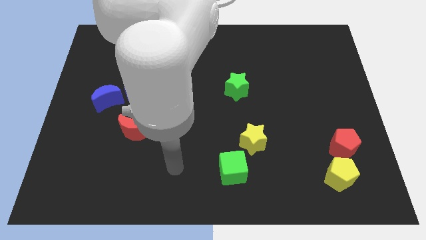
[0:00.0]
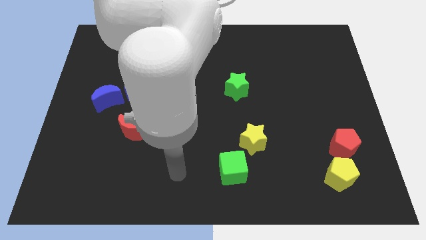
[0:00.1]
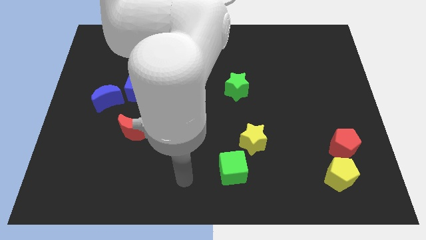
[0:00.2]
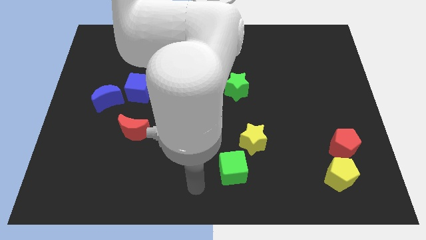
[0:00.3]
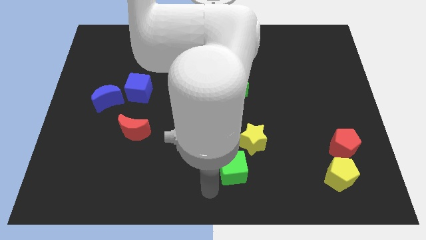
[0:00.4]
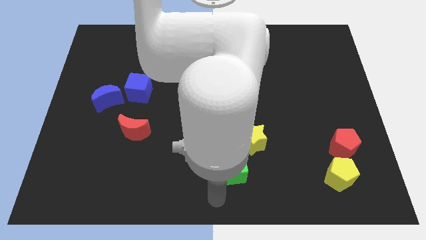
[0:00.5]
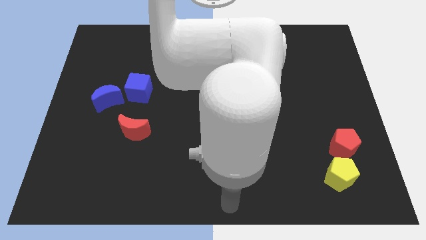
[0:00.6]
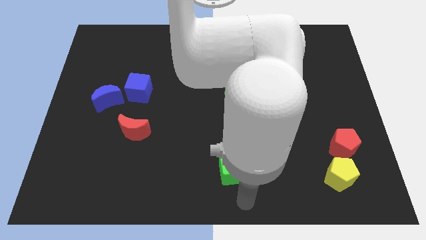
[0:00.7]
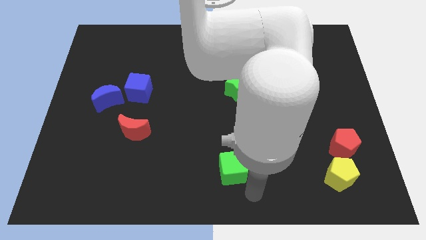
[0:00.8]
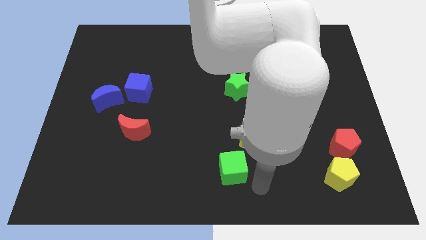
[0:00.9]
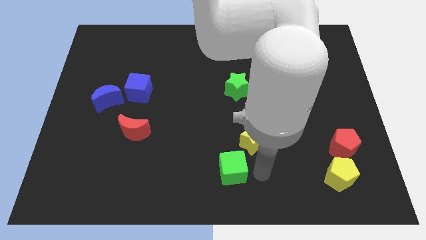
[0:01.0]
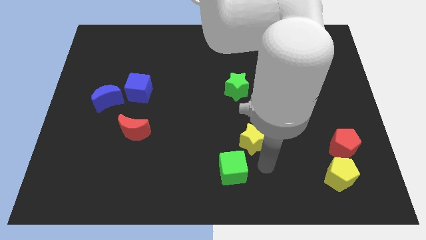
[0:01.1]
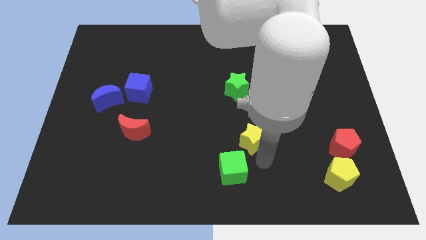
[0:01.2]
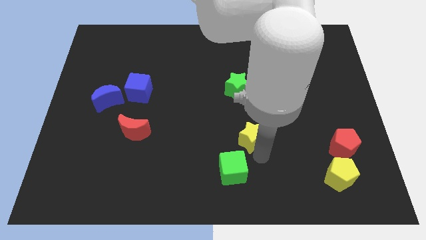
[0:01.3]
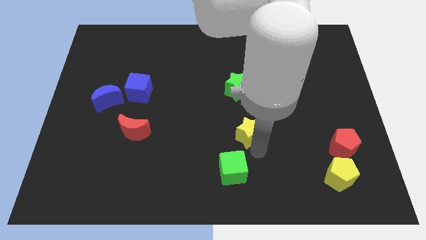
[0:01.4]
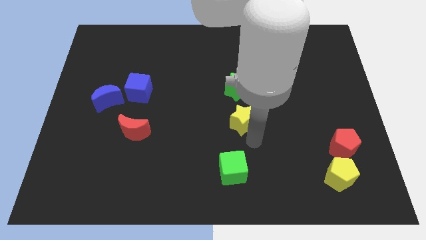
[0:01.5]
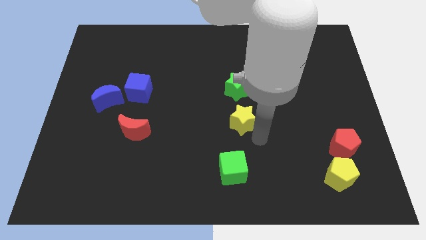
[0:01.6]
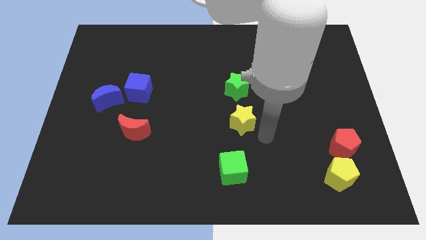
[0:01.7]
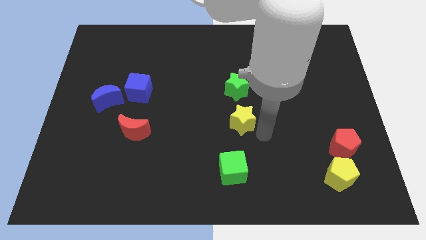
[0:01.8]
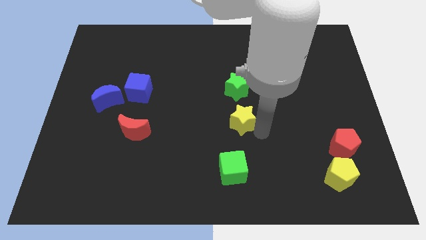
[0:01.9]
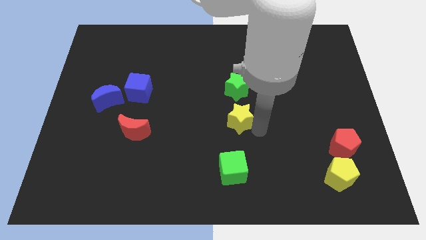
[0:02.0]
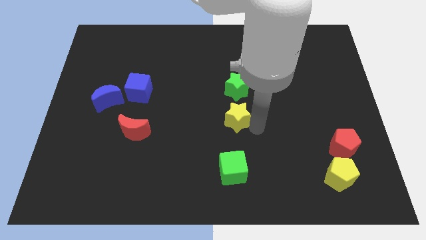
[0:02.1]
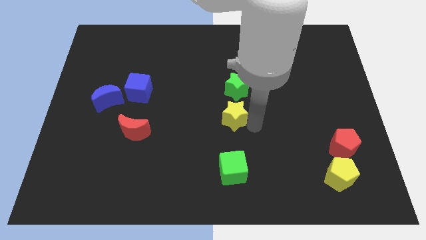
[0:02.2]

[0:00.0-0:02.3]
slide the yellow star upwards and to the left diagonally a bit

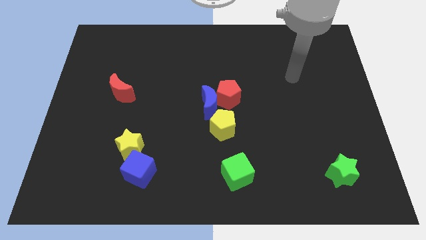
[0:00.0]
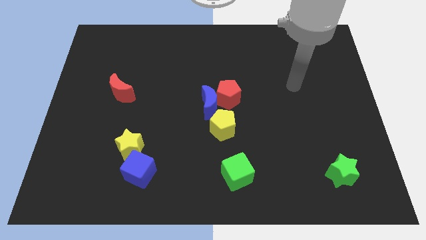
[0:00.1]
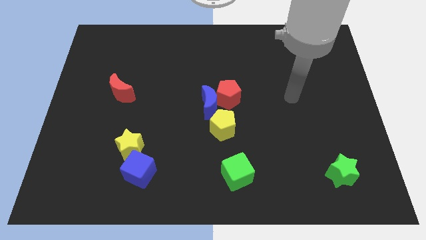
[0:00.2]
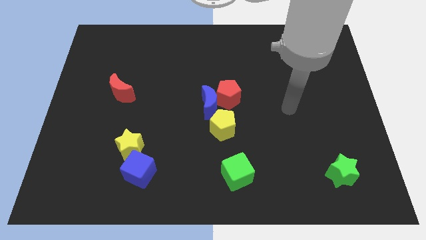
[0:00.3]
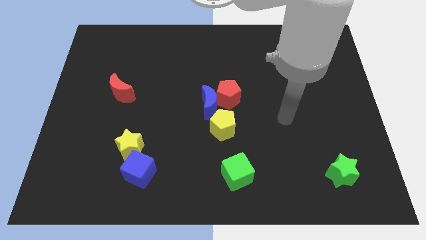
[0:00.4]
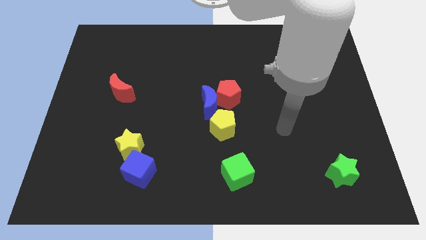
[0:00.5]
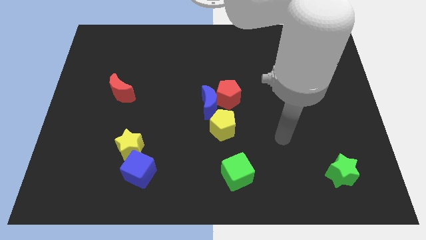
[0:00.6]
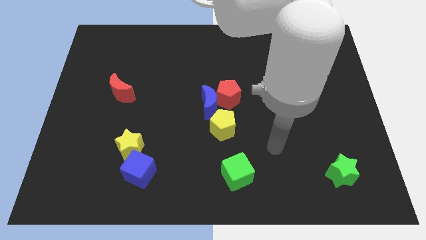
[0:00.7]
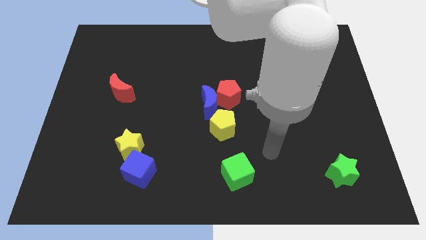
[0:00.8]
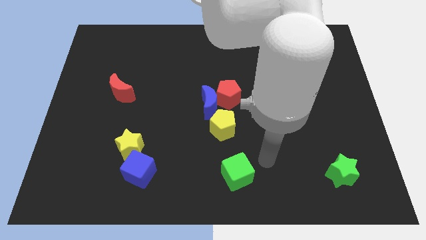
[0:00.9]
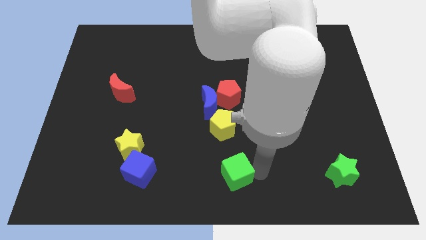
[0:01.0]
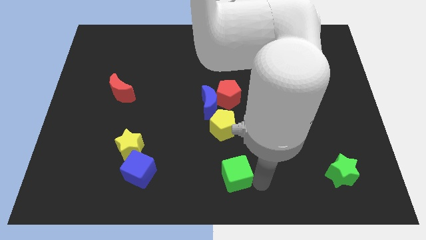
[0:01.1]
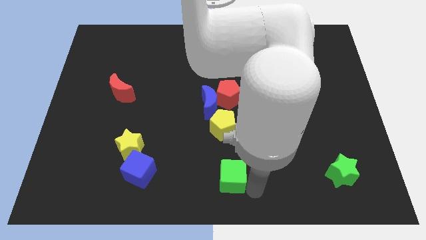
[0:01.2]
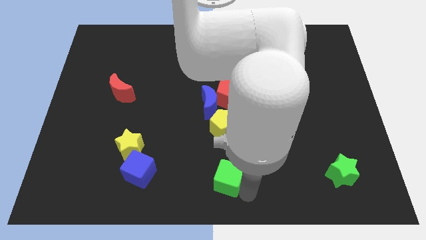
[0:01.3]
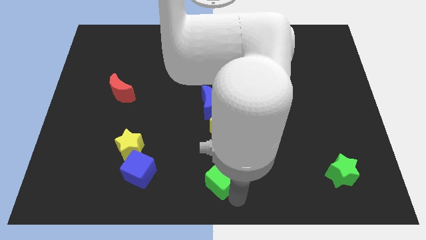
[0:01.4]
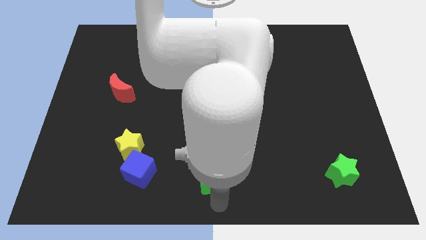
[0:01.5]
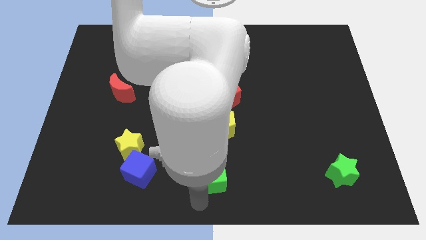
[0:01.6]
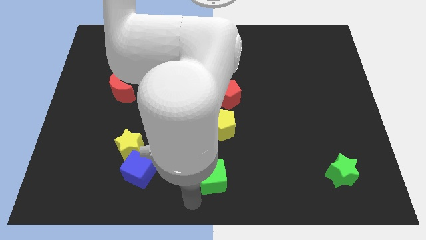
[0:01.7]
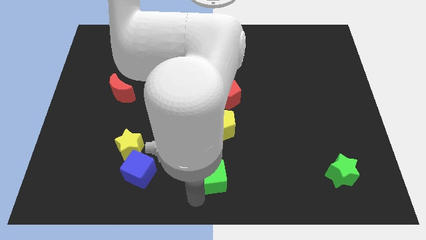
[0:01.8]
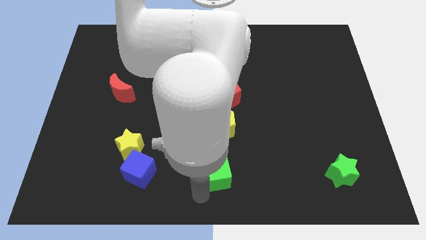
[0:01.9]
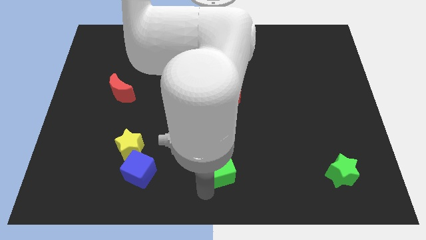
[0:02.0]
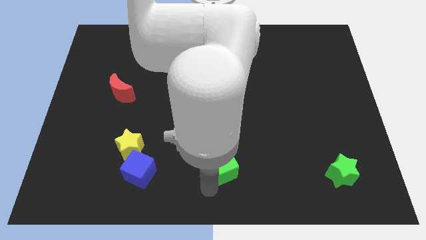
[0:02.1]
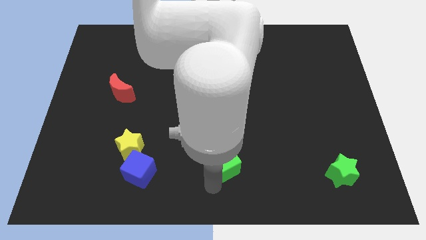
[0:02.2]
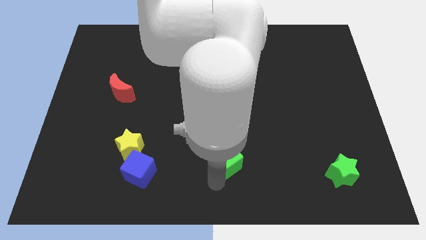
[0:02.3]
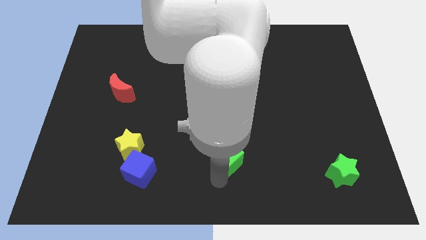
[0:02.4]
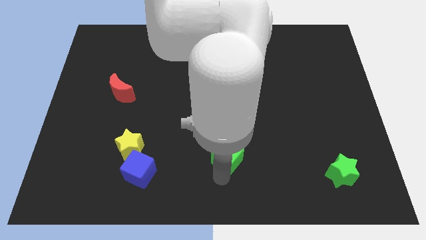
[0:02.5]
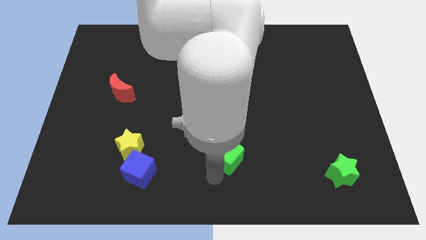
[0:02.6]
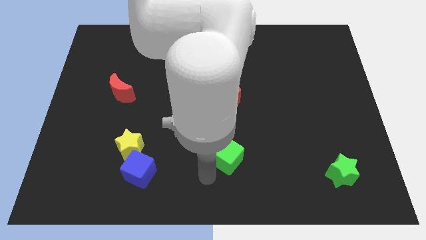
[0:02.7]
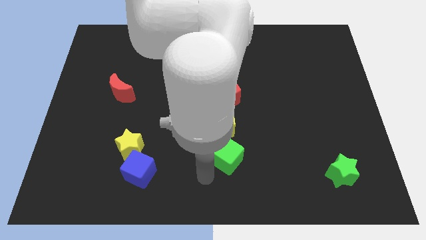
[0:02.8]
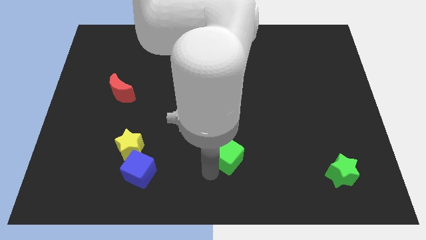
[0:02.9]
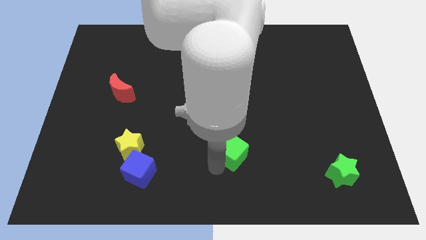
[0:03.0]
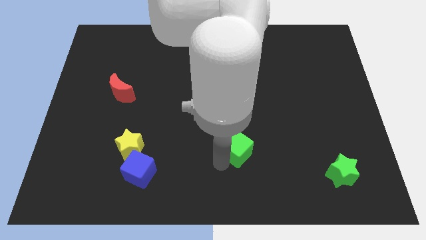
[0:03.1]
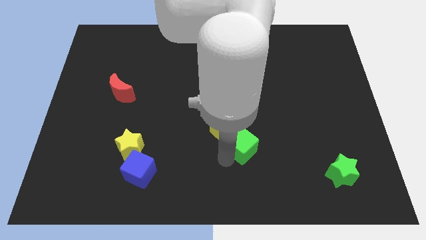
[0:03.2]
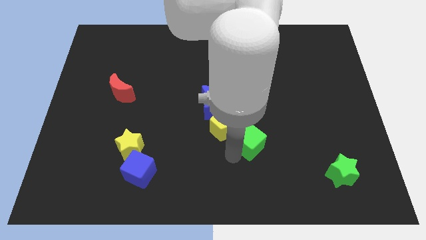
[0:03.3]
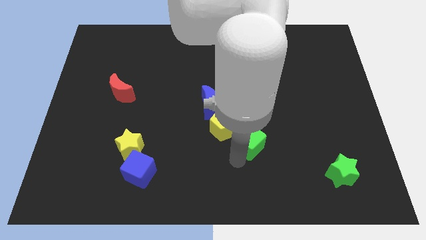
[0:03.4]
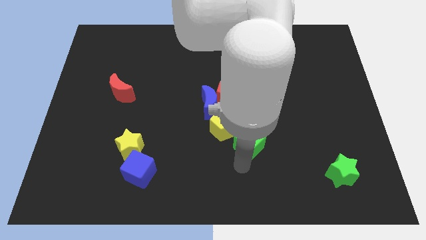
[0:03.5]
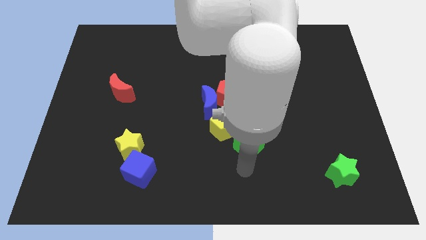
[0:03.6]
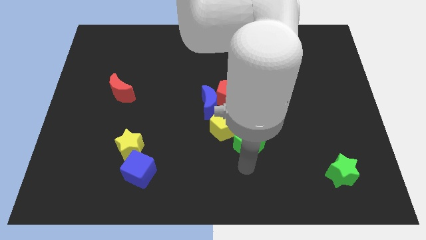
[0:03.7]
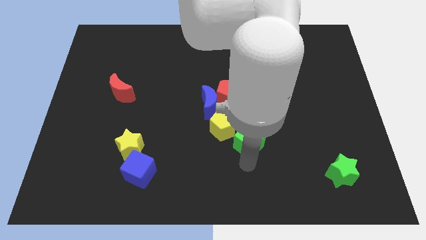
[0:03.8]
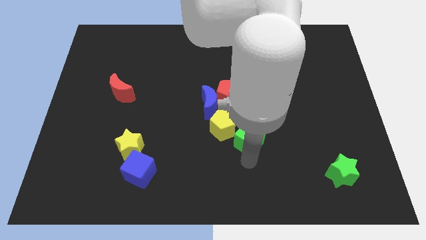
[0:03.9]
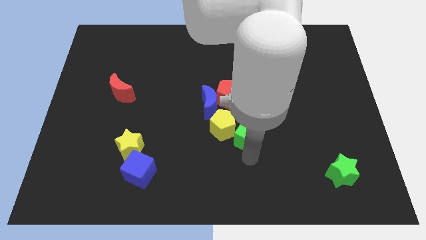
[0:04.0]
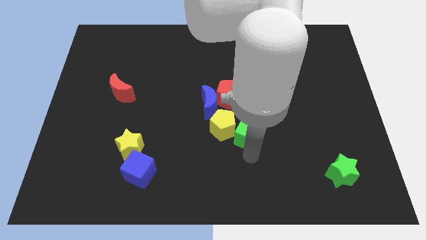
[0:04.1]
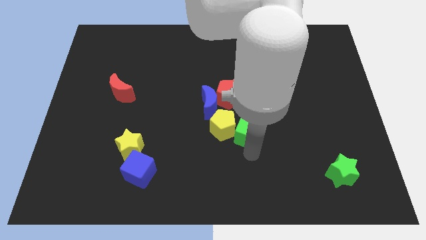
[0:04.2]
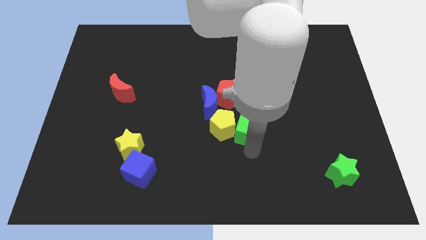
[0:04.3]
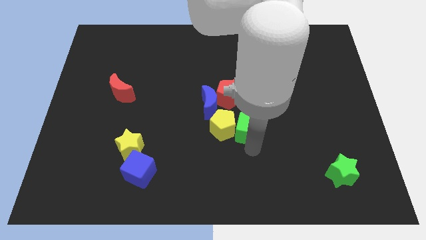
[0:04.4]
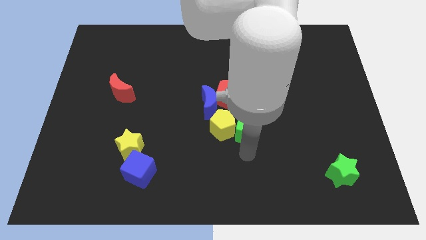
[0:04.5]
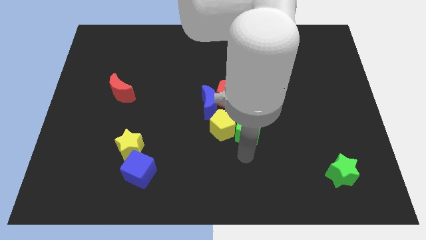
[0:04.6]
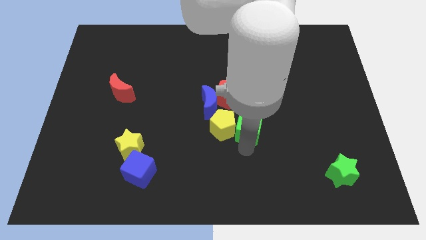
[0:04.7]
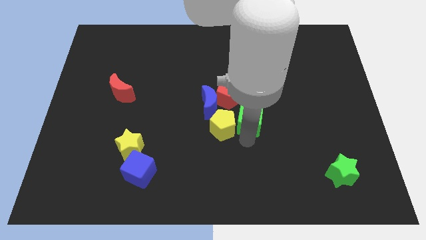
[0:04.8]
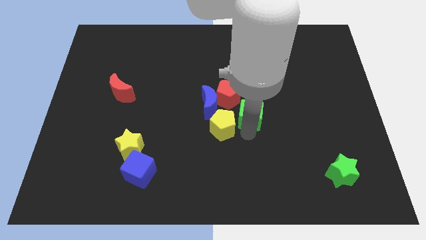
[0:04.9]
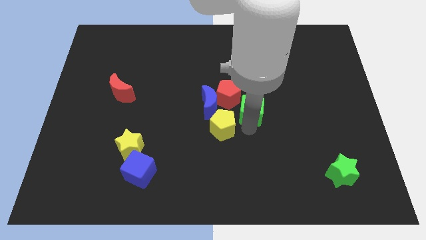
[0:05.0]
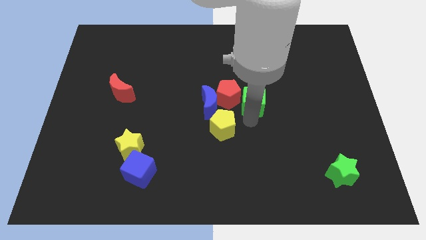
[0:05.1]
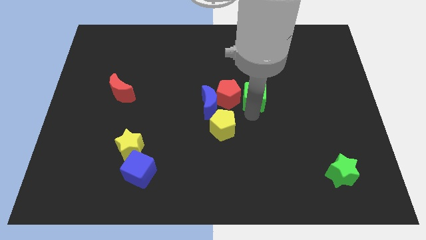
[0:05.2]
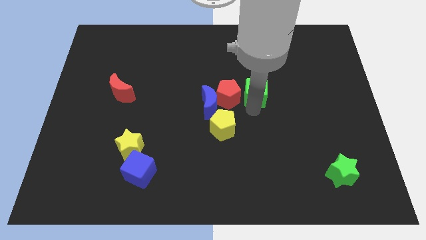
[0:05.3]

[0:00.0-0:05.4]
move the green cube upwards
